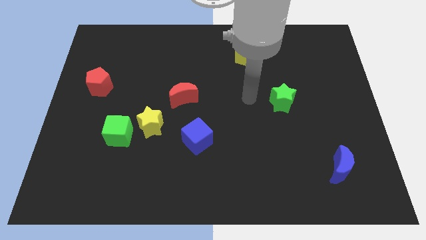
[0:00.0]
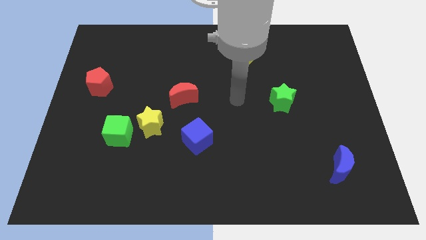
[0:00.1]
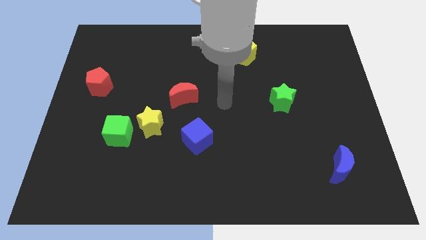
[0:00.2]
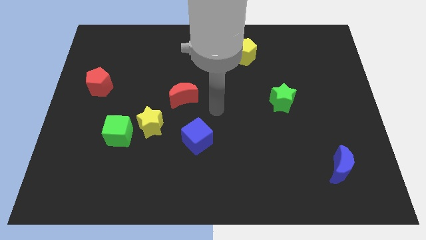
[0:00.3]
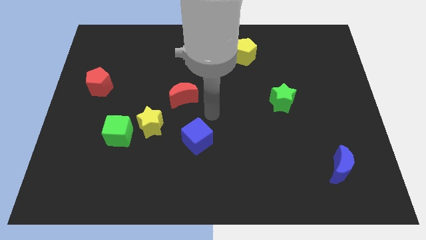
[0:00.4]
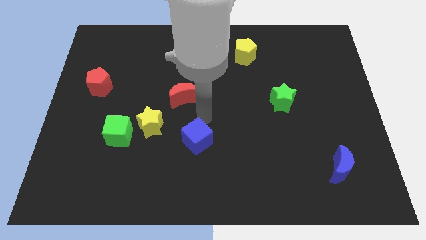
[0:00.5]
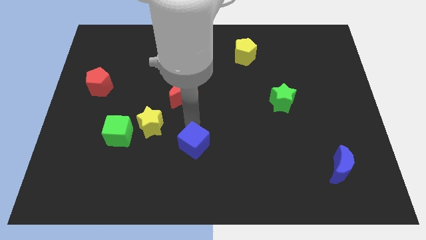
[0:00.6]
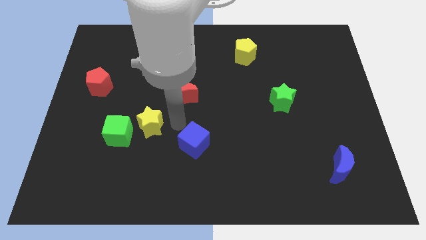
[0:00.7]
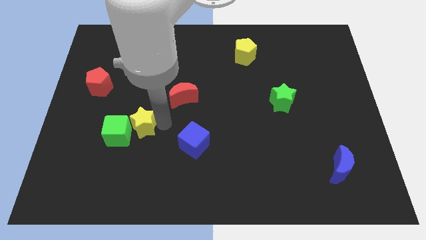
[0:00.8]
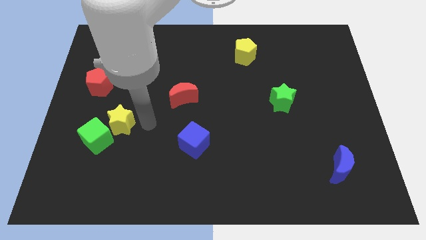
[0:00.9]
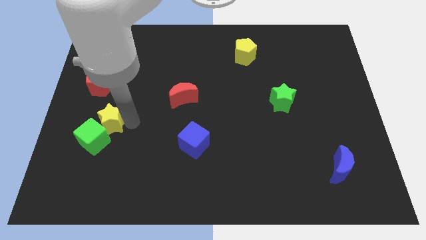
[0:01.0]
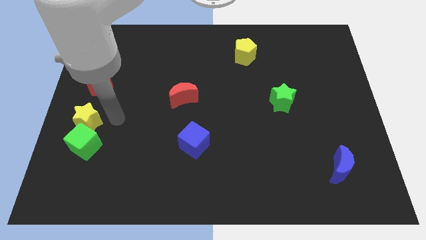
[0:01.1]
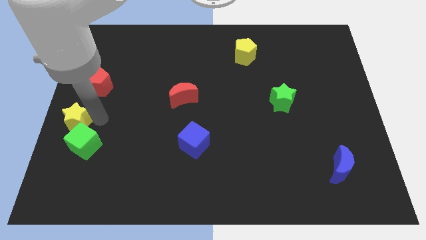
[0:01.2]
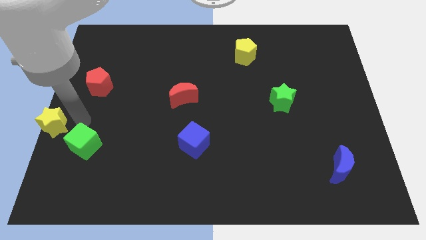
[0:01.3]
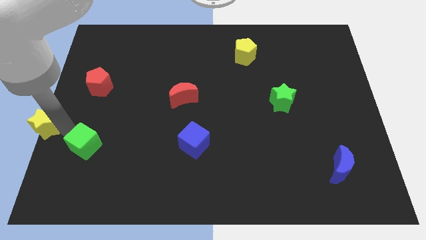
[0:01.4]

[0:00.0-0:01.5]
move the green cube away from the yellow star

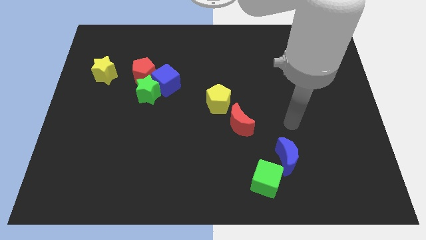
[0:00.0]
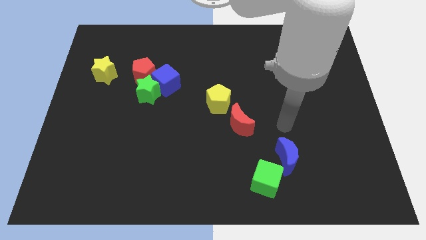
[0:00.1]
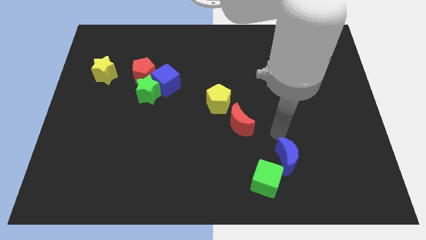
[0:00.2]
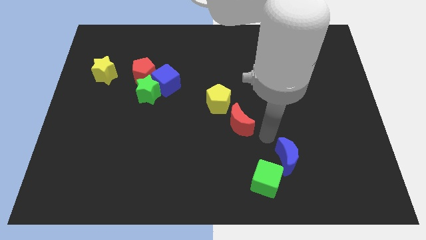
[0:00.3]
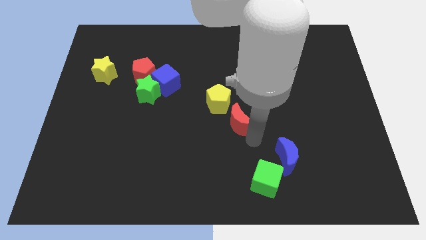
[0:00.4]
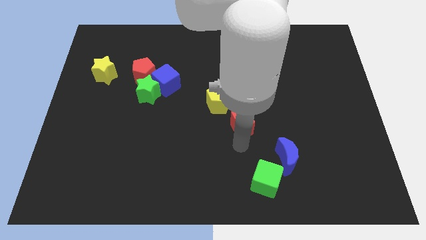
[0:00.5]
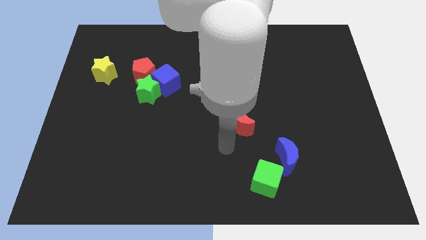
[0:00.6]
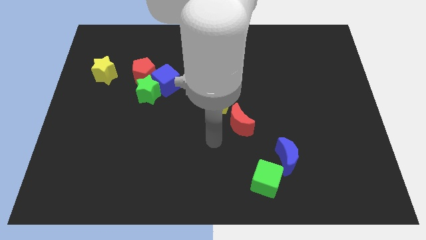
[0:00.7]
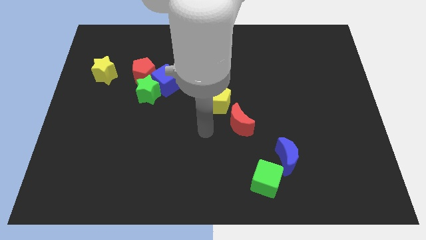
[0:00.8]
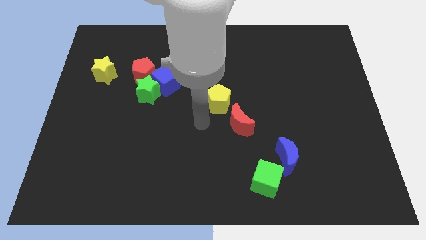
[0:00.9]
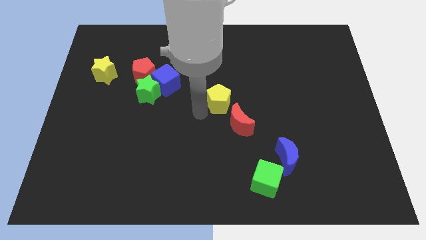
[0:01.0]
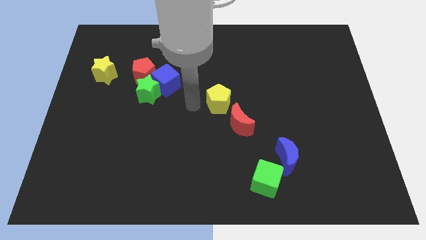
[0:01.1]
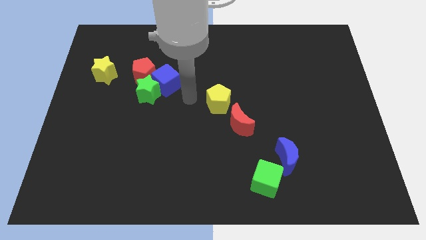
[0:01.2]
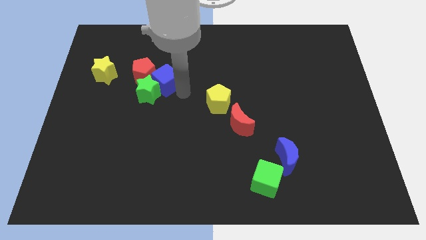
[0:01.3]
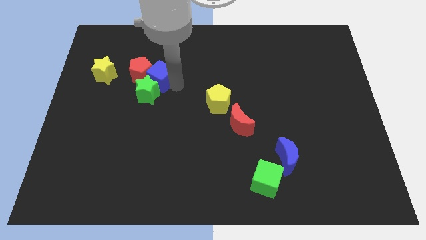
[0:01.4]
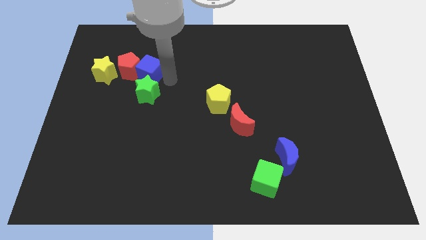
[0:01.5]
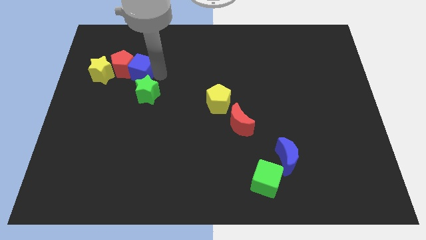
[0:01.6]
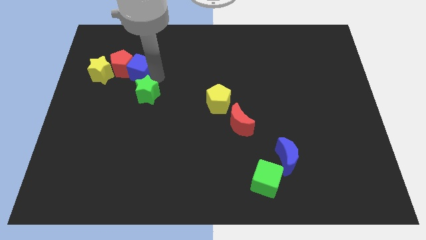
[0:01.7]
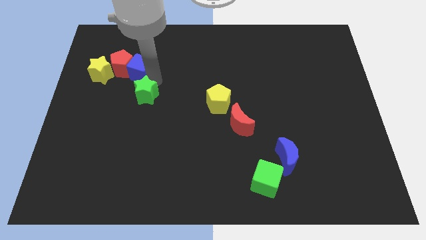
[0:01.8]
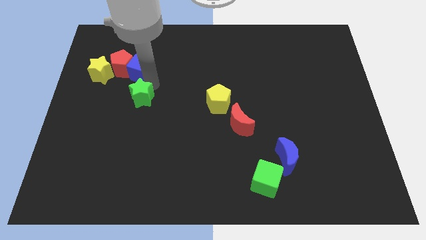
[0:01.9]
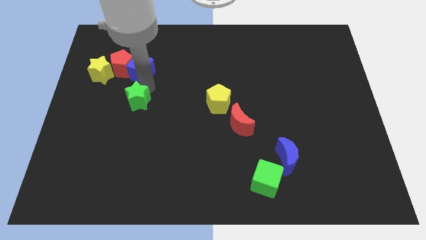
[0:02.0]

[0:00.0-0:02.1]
pull the green star apart from the blue cube and red pentagon

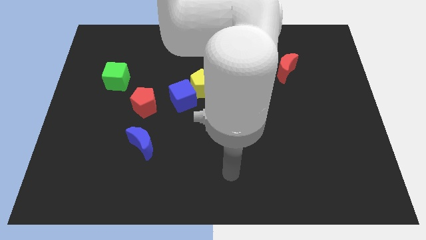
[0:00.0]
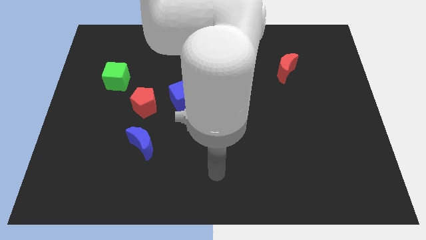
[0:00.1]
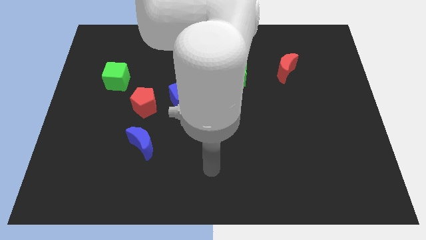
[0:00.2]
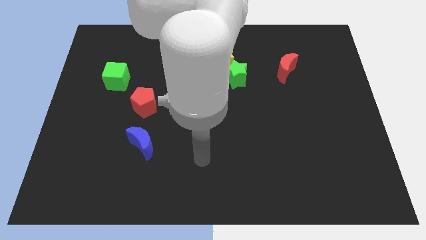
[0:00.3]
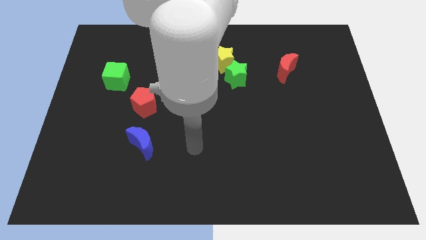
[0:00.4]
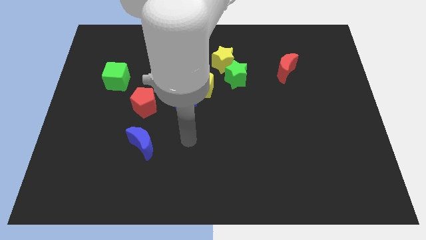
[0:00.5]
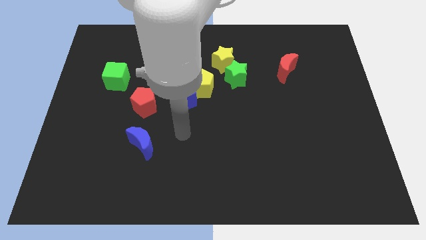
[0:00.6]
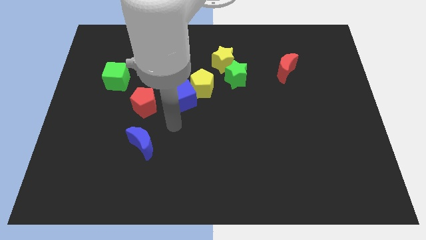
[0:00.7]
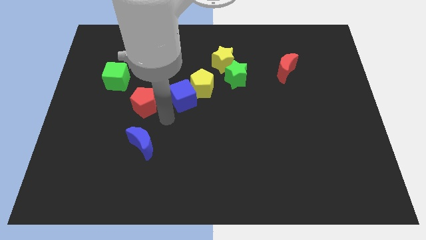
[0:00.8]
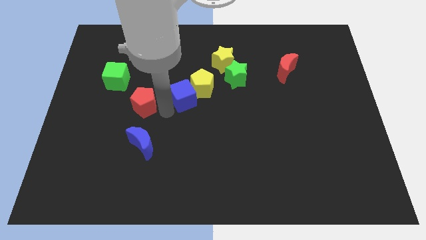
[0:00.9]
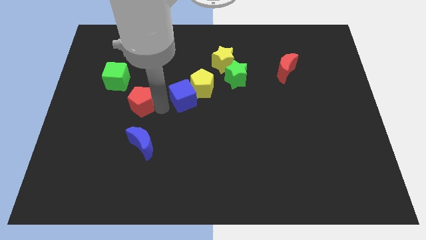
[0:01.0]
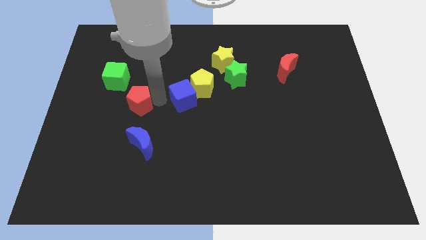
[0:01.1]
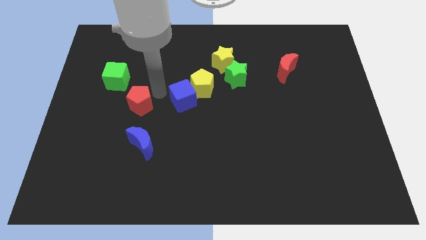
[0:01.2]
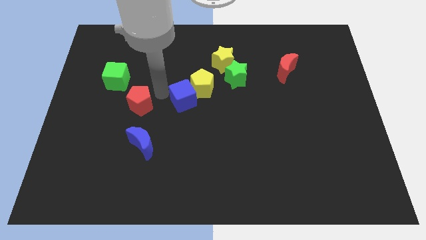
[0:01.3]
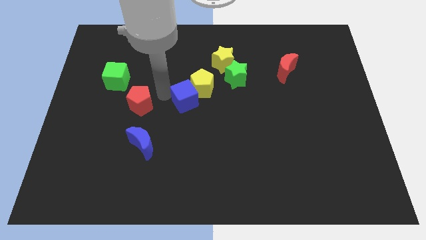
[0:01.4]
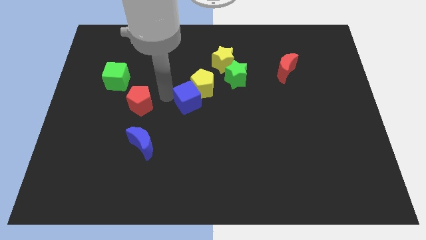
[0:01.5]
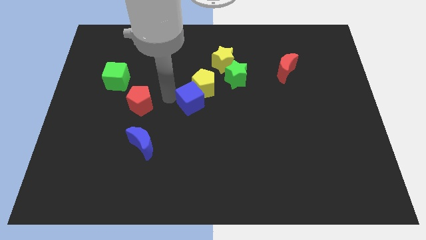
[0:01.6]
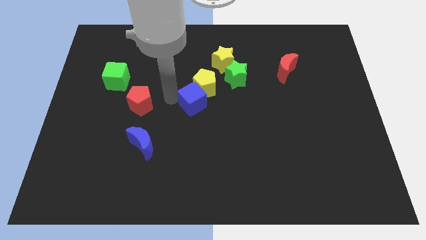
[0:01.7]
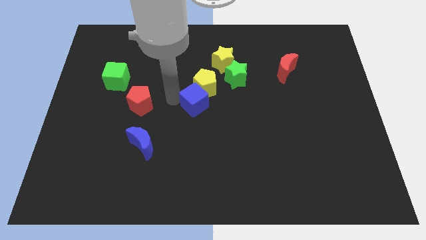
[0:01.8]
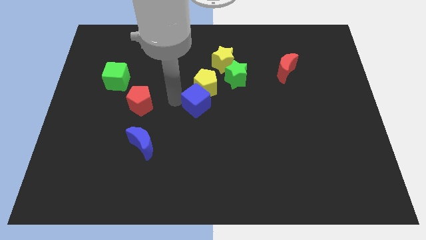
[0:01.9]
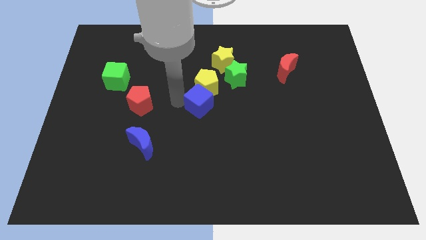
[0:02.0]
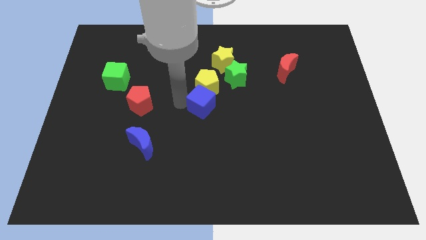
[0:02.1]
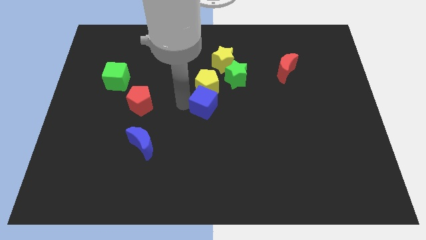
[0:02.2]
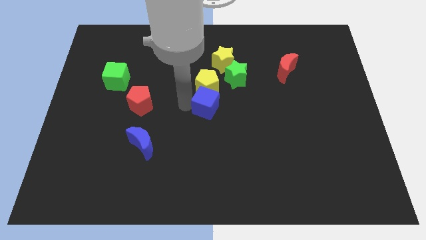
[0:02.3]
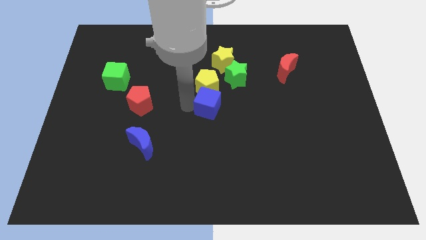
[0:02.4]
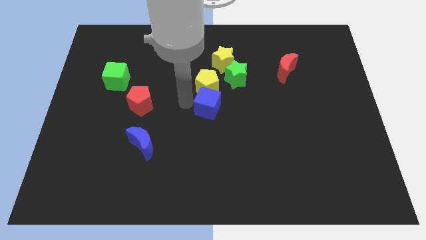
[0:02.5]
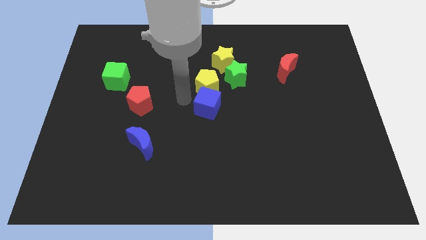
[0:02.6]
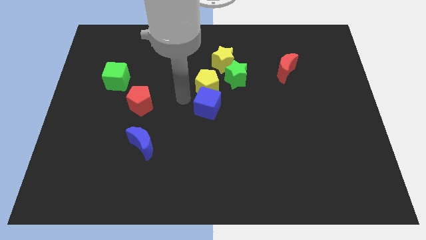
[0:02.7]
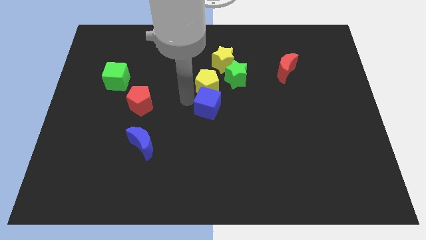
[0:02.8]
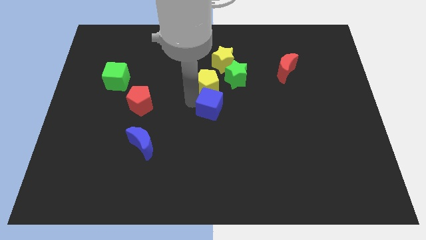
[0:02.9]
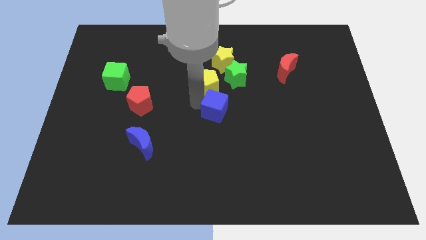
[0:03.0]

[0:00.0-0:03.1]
move the blue cube away from the yellow pentagon and red pentagon

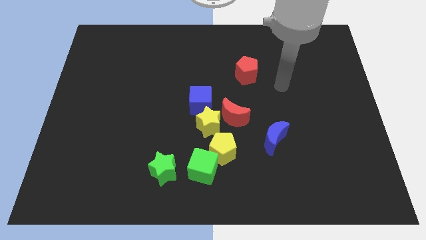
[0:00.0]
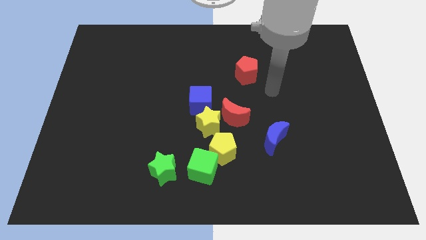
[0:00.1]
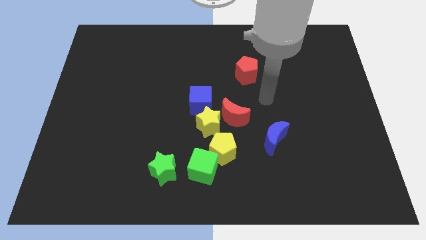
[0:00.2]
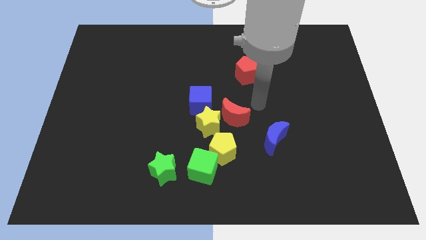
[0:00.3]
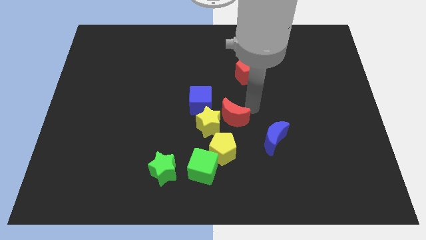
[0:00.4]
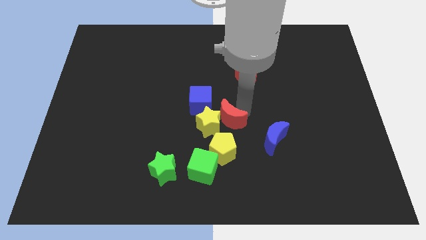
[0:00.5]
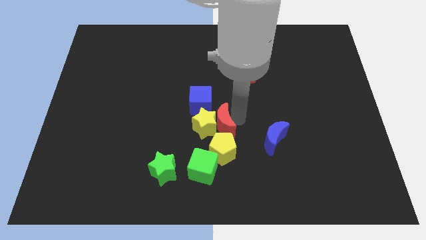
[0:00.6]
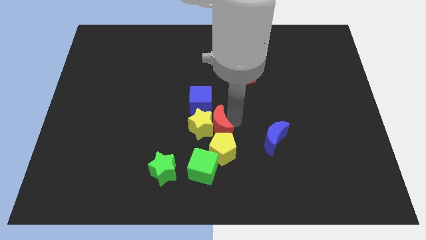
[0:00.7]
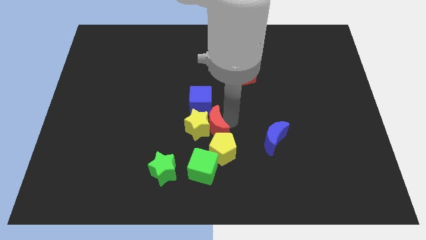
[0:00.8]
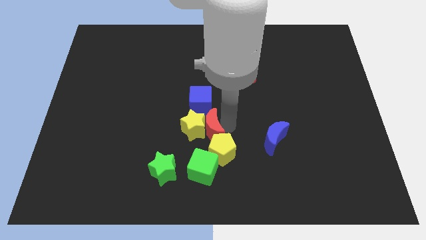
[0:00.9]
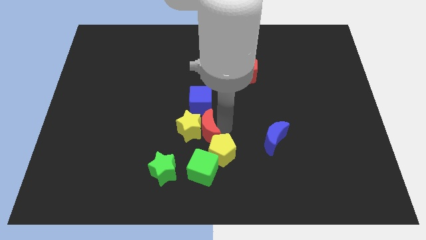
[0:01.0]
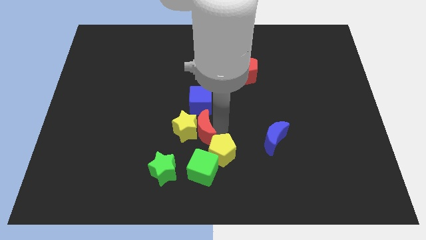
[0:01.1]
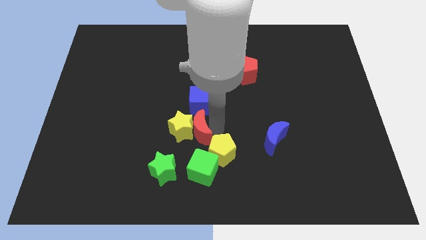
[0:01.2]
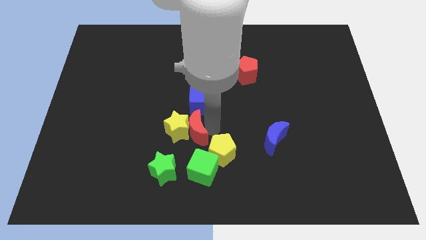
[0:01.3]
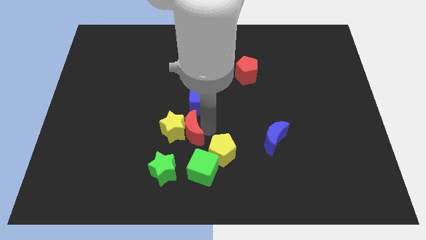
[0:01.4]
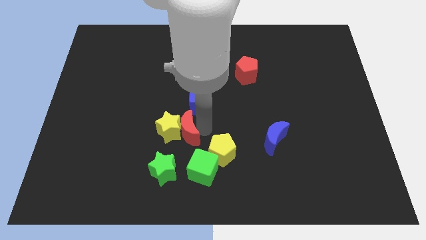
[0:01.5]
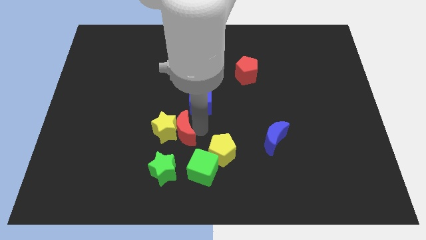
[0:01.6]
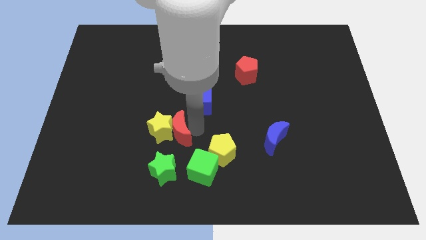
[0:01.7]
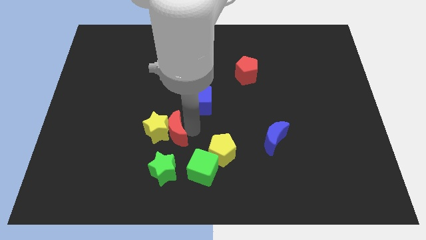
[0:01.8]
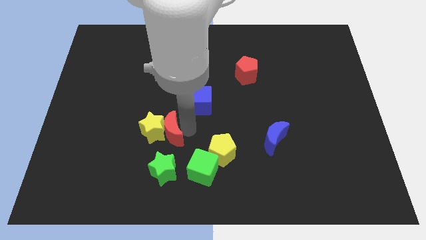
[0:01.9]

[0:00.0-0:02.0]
separate the yellow star from the red moon, blue cube, and yellow pentagon

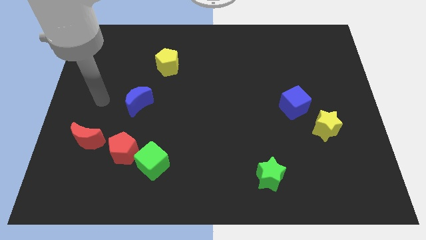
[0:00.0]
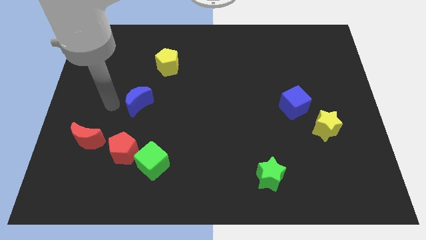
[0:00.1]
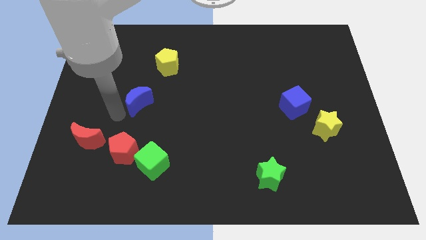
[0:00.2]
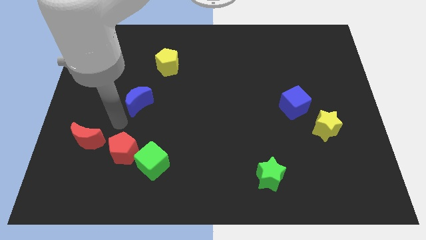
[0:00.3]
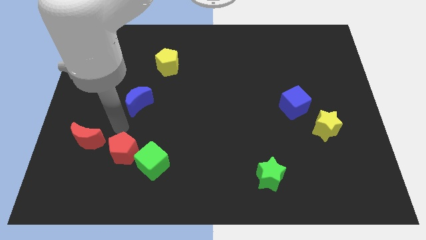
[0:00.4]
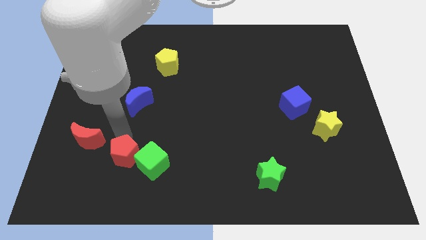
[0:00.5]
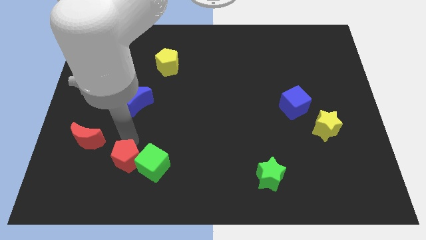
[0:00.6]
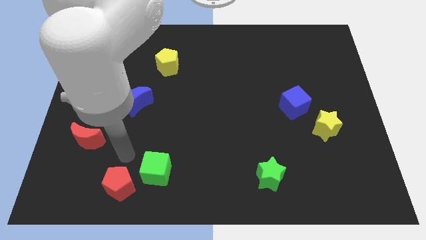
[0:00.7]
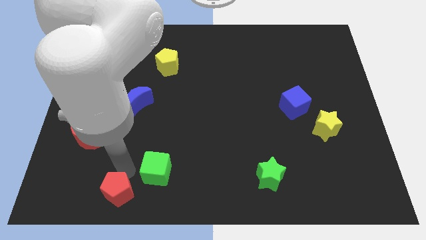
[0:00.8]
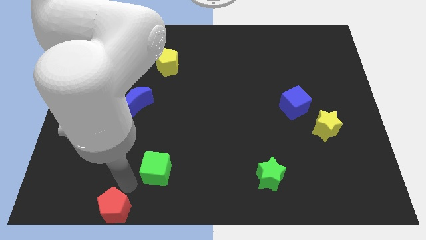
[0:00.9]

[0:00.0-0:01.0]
separate the green cube from the red pentagon
